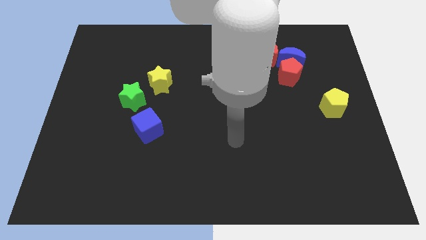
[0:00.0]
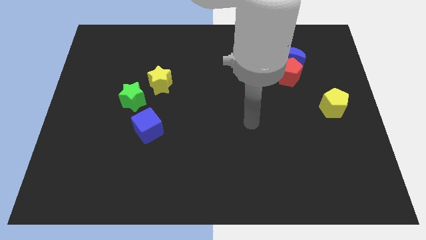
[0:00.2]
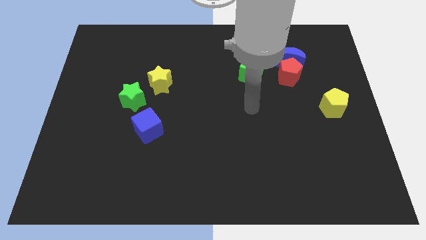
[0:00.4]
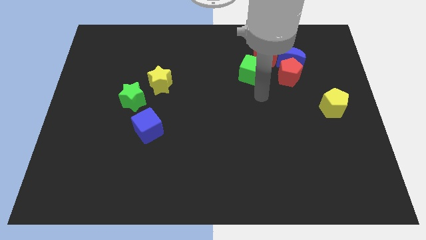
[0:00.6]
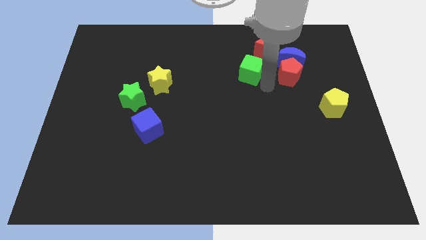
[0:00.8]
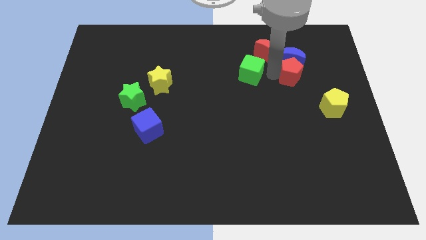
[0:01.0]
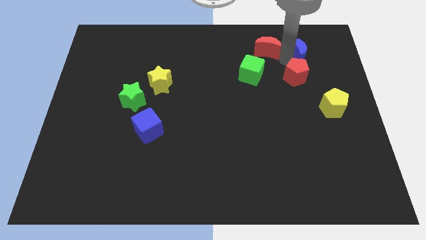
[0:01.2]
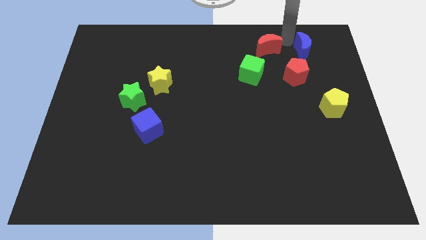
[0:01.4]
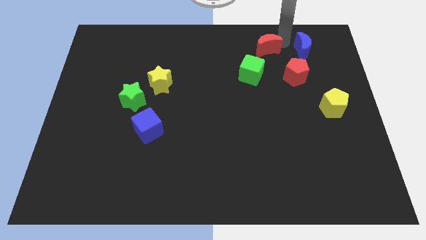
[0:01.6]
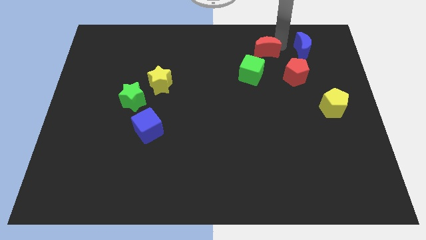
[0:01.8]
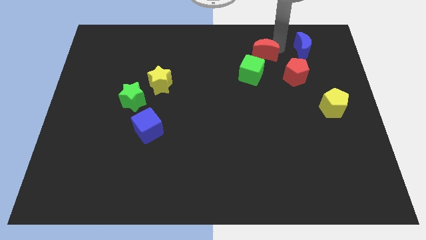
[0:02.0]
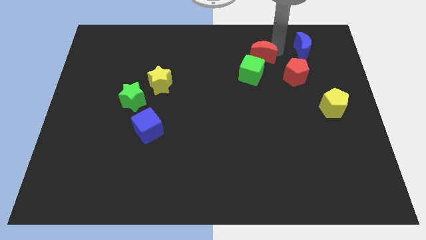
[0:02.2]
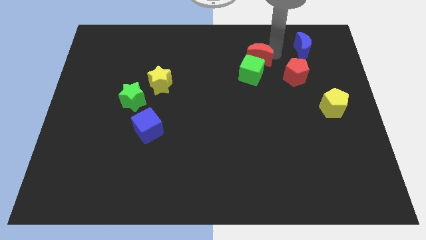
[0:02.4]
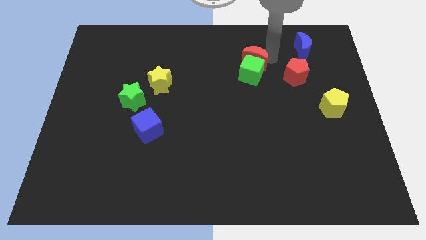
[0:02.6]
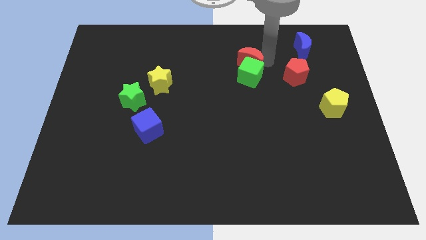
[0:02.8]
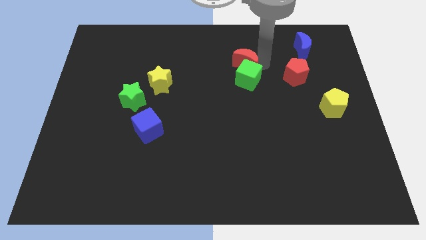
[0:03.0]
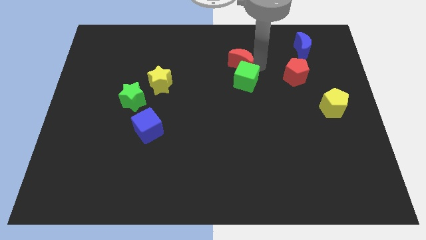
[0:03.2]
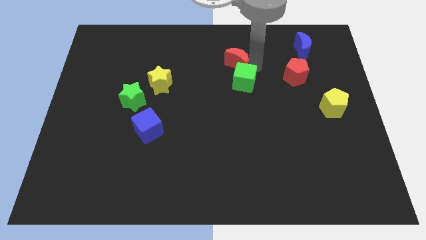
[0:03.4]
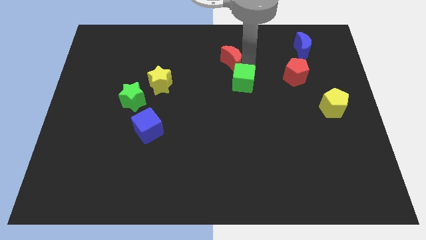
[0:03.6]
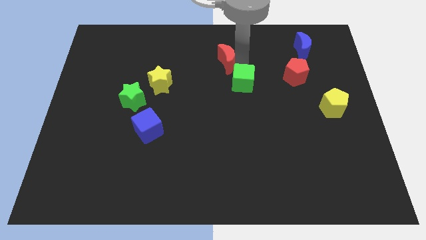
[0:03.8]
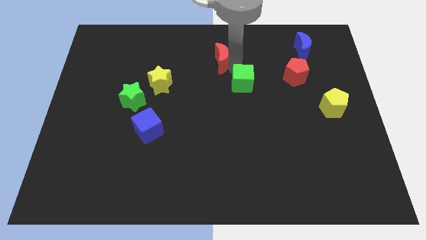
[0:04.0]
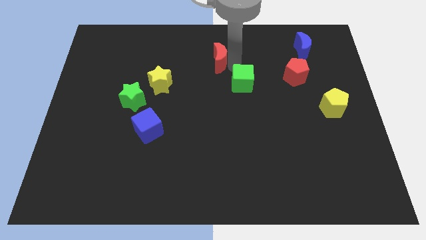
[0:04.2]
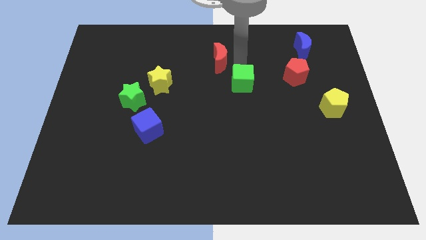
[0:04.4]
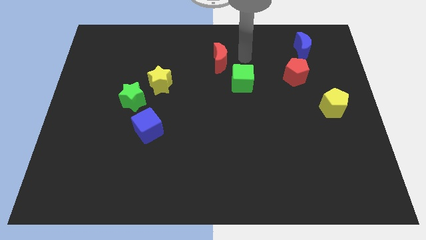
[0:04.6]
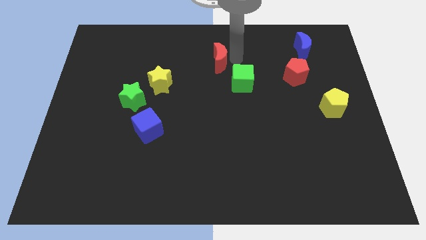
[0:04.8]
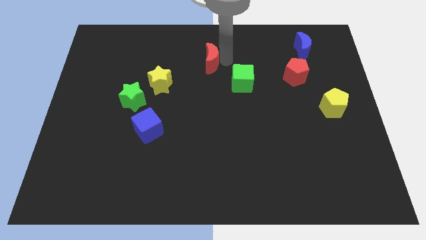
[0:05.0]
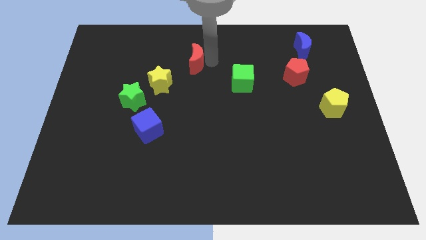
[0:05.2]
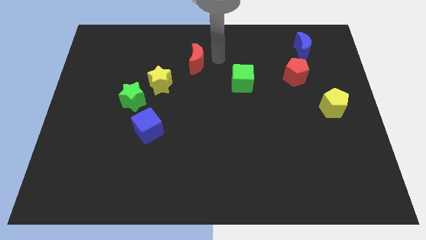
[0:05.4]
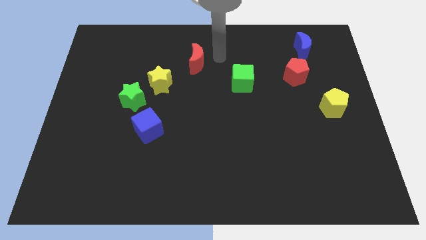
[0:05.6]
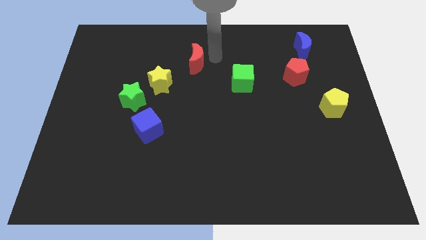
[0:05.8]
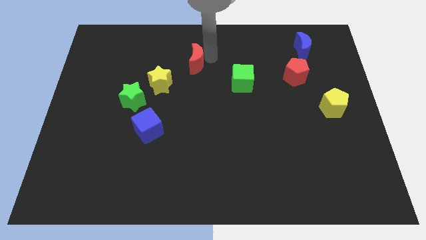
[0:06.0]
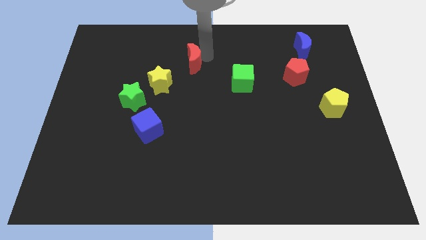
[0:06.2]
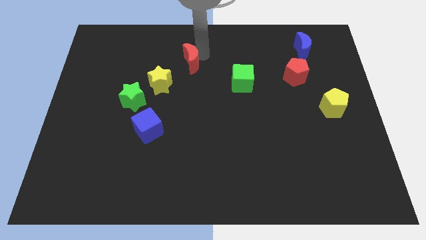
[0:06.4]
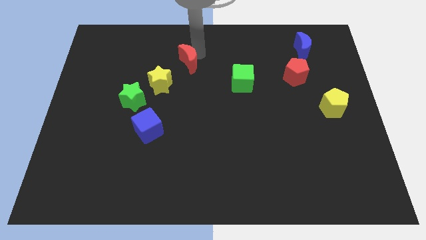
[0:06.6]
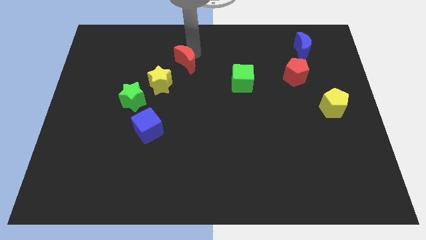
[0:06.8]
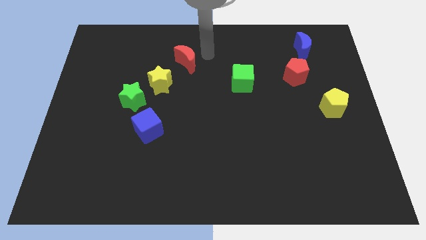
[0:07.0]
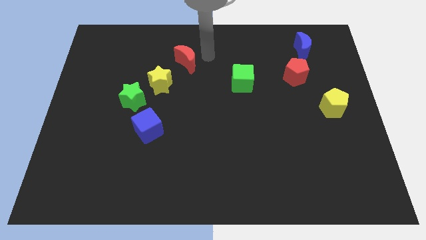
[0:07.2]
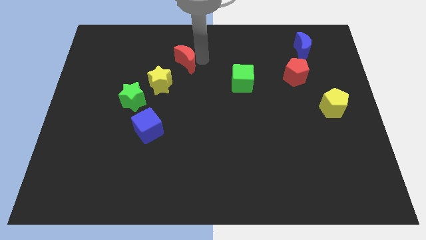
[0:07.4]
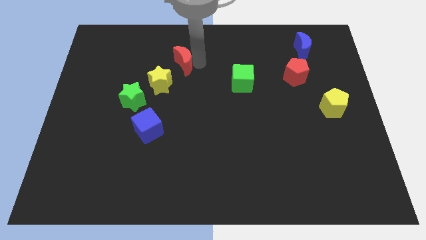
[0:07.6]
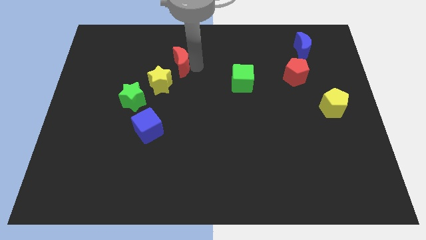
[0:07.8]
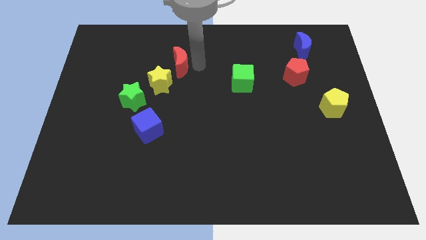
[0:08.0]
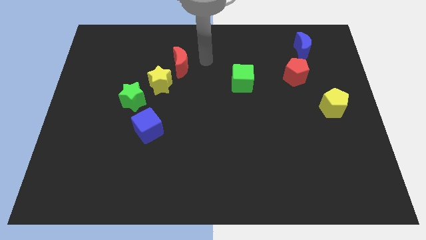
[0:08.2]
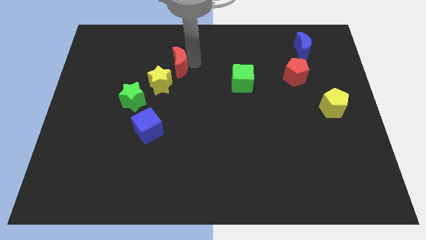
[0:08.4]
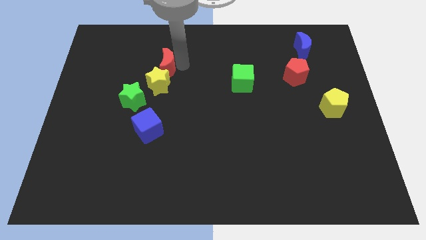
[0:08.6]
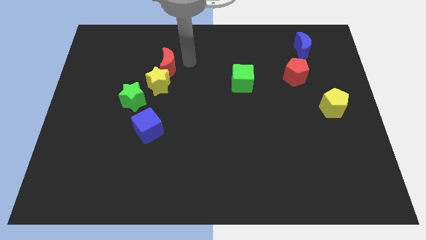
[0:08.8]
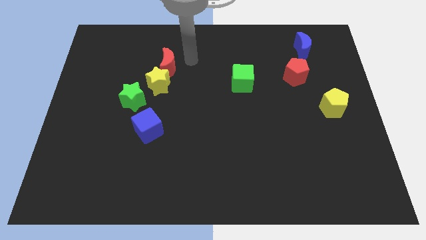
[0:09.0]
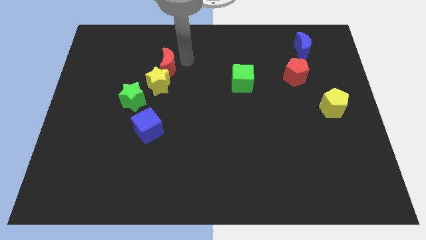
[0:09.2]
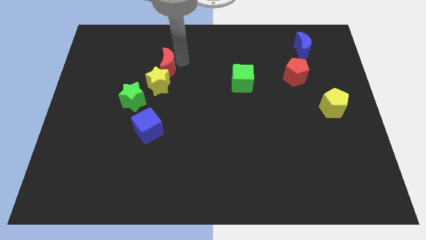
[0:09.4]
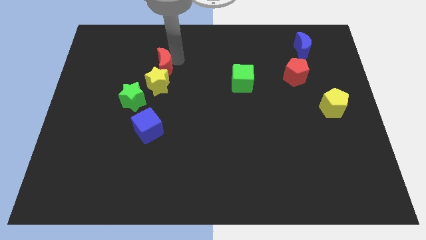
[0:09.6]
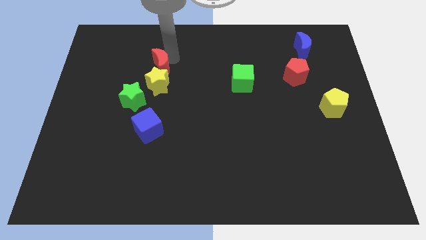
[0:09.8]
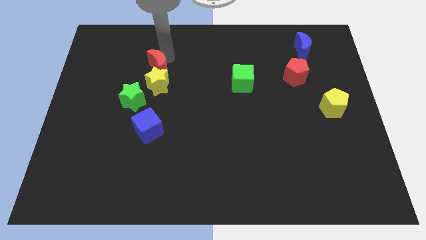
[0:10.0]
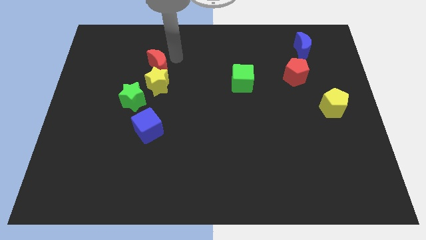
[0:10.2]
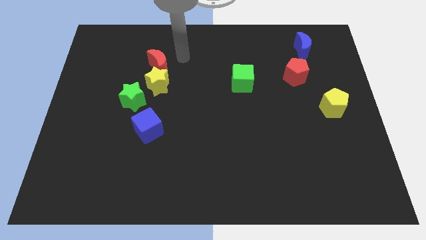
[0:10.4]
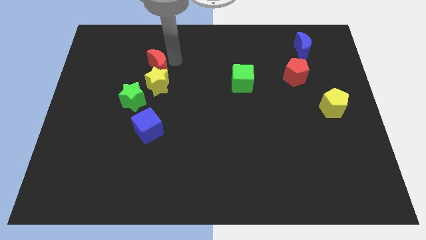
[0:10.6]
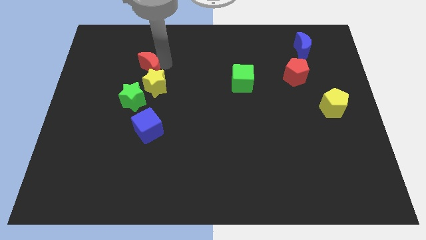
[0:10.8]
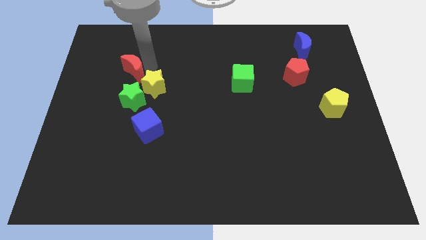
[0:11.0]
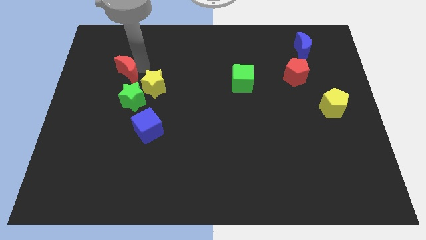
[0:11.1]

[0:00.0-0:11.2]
move the red moon to the top left of the green star

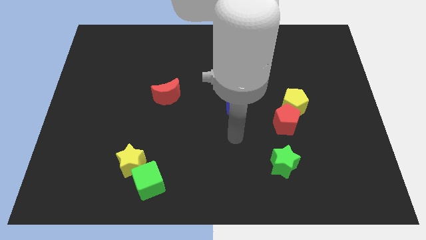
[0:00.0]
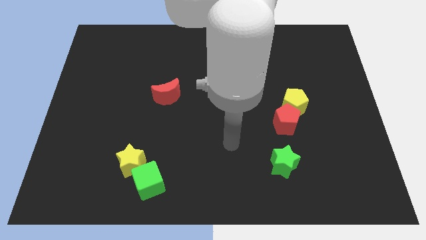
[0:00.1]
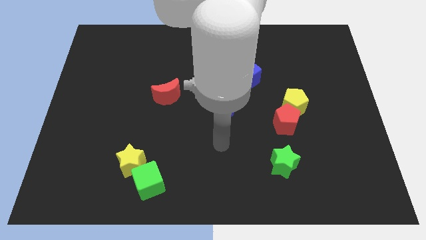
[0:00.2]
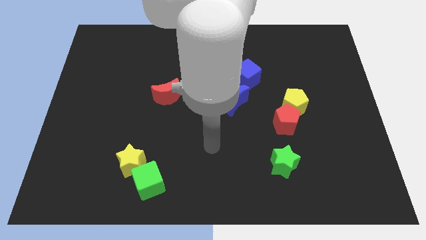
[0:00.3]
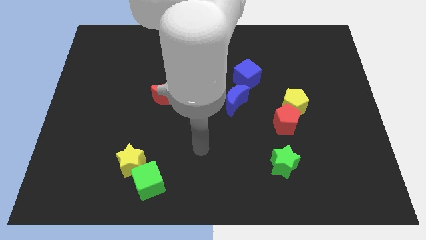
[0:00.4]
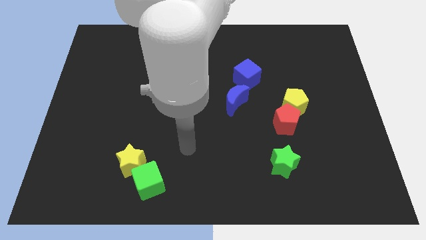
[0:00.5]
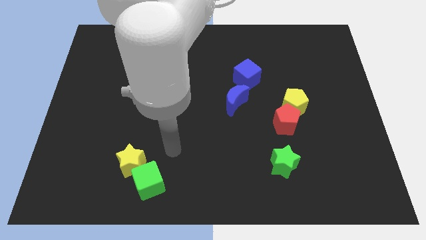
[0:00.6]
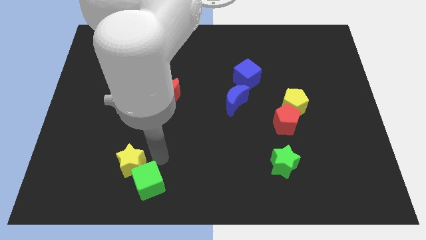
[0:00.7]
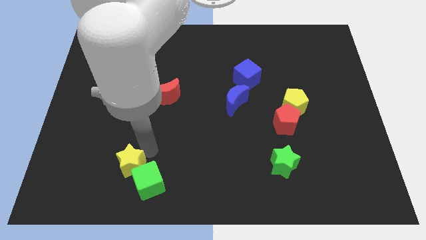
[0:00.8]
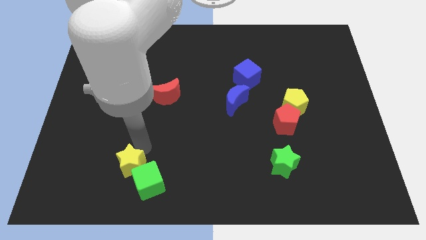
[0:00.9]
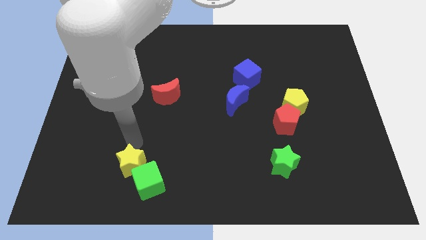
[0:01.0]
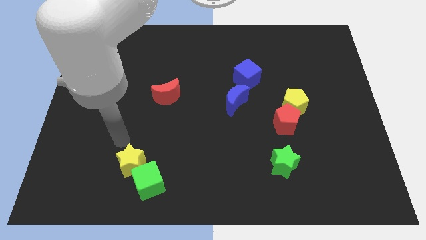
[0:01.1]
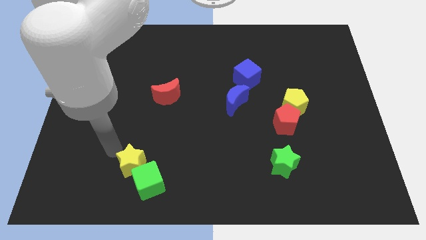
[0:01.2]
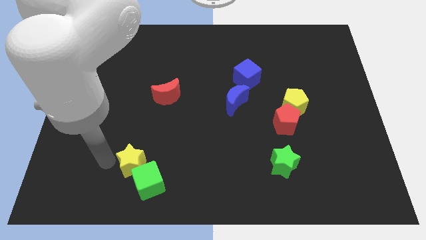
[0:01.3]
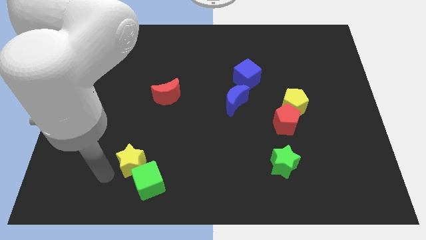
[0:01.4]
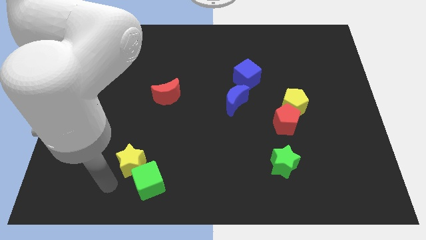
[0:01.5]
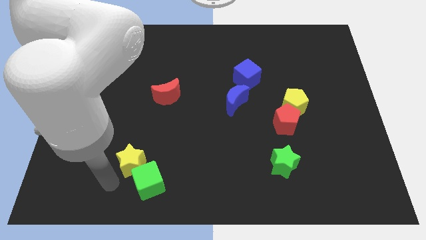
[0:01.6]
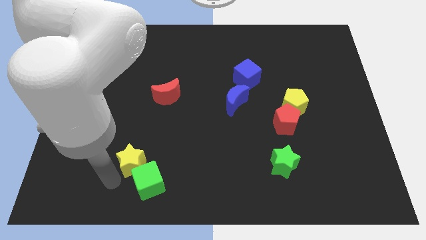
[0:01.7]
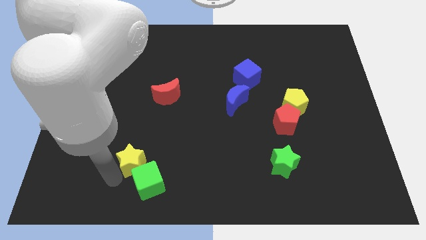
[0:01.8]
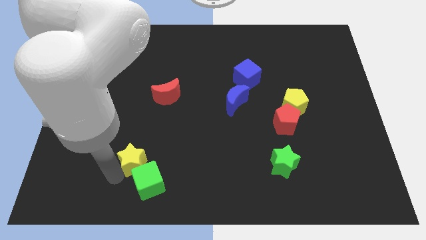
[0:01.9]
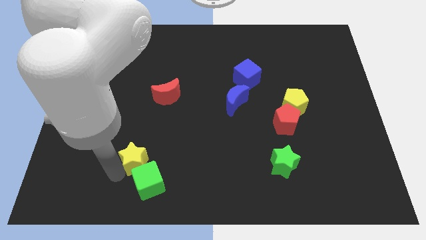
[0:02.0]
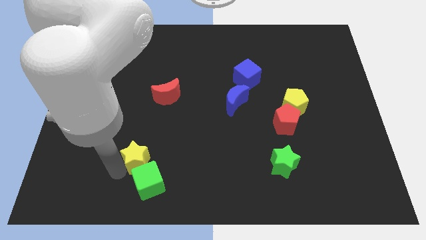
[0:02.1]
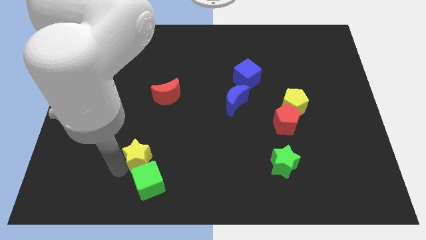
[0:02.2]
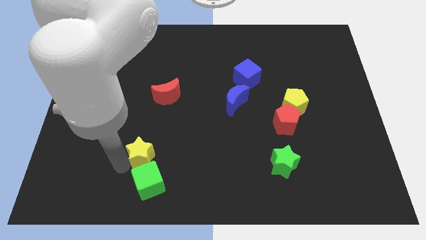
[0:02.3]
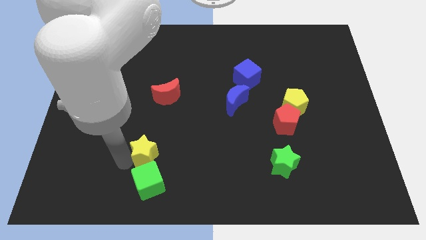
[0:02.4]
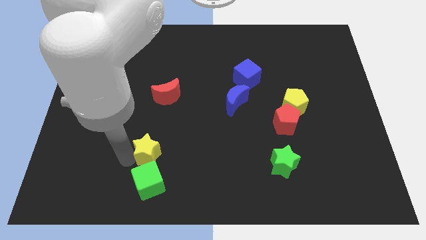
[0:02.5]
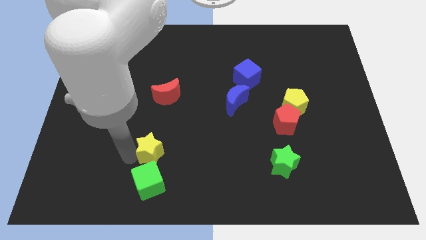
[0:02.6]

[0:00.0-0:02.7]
move the yellow star to the bottom side of the red moon
